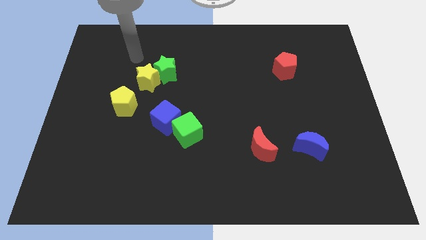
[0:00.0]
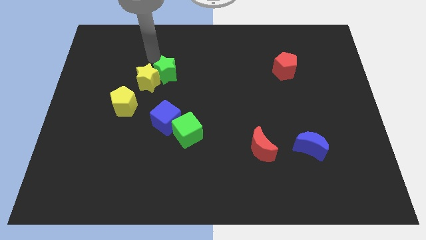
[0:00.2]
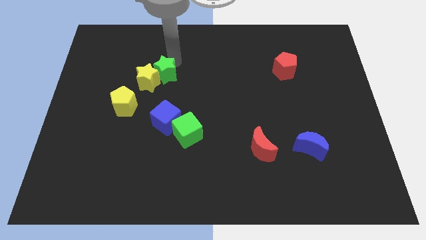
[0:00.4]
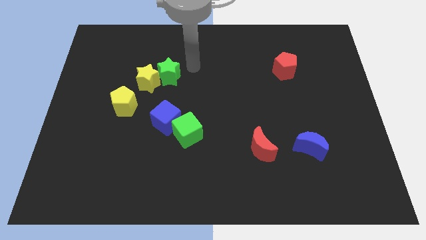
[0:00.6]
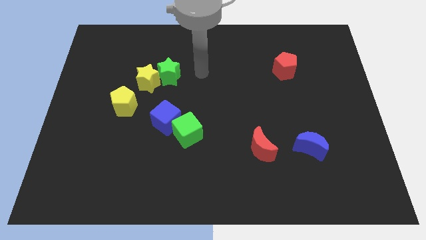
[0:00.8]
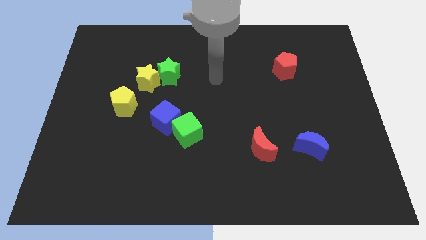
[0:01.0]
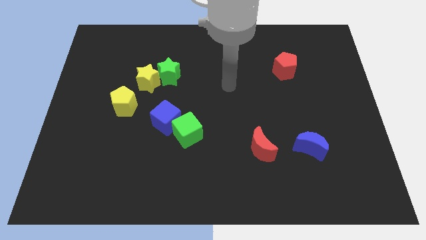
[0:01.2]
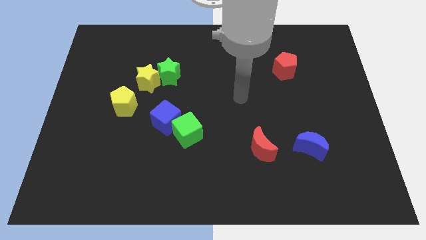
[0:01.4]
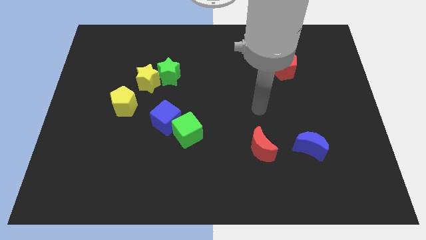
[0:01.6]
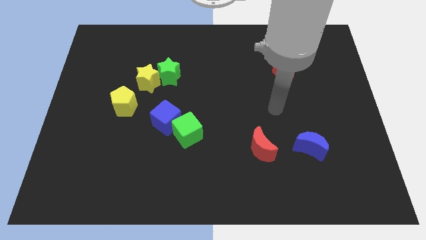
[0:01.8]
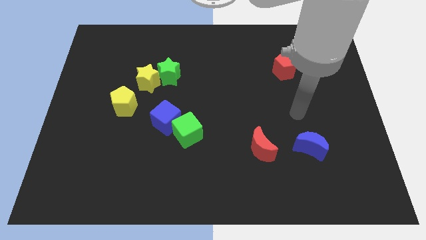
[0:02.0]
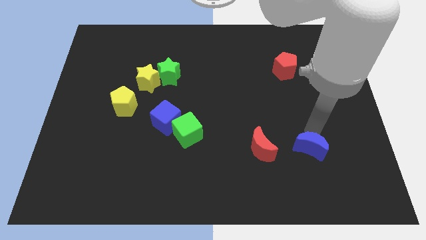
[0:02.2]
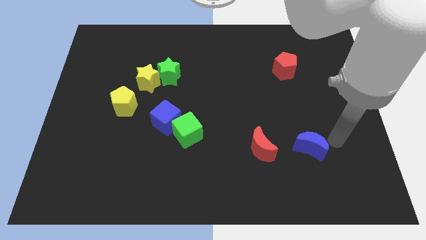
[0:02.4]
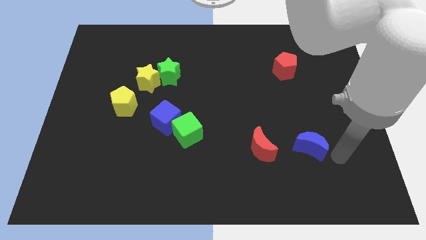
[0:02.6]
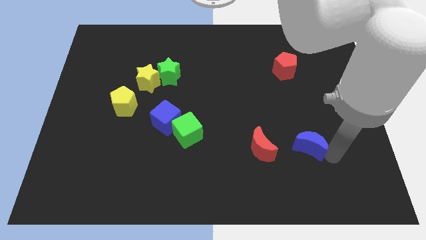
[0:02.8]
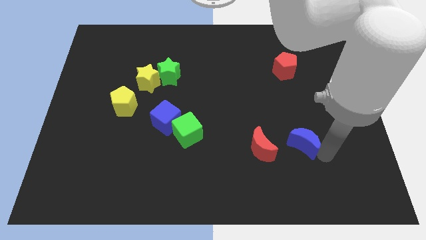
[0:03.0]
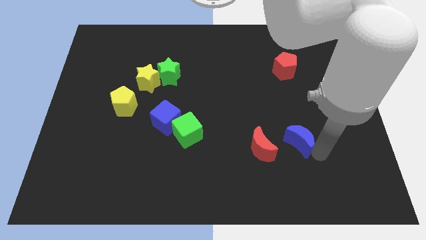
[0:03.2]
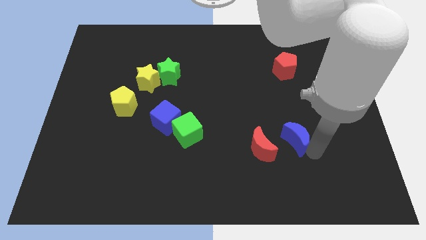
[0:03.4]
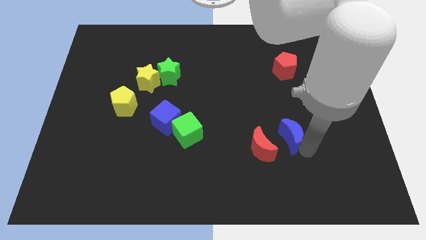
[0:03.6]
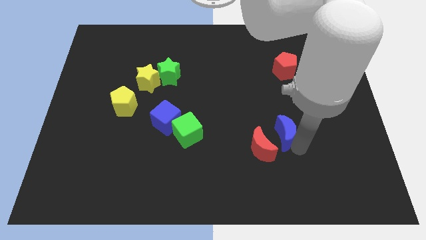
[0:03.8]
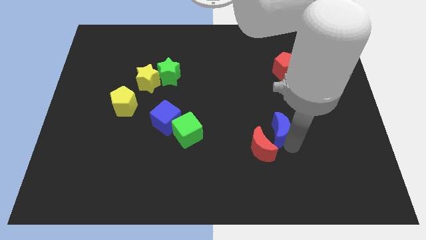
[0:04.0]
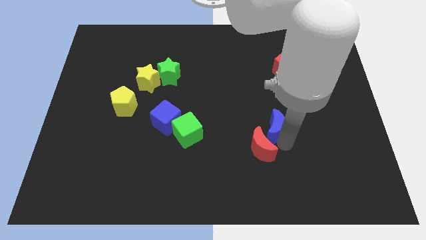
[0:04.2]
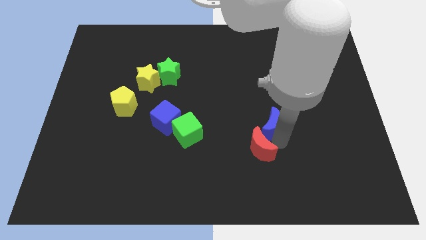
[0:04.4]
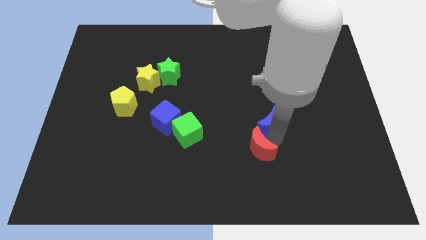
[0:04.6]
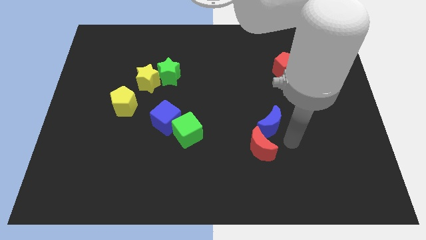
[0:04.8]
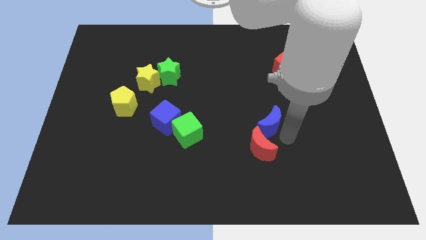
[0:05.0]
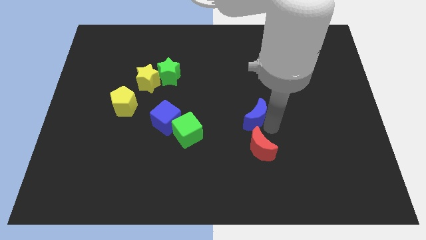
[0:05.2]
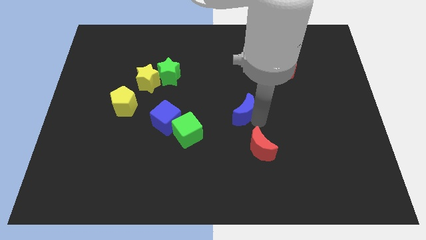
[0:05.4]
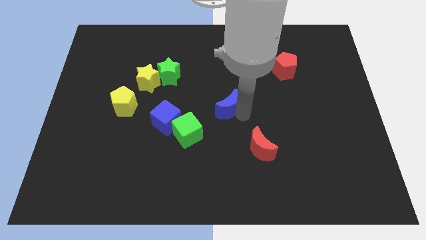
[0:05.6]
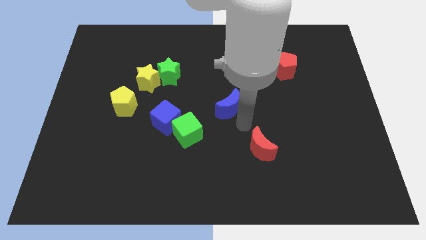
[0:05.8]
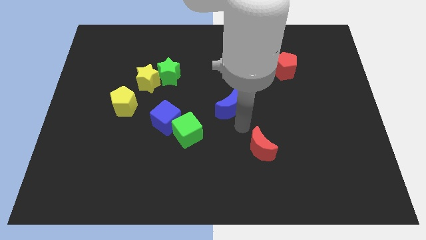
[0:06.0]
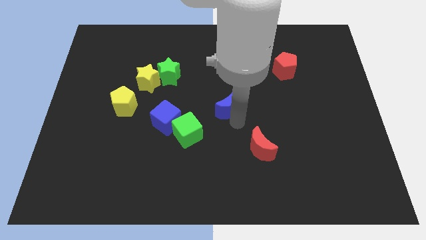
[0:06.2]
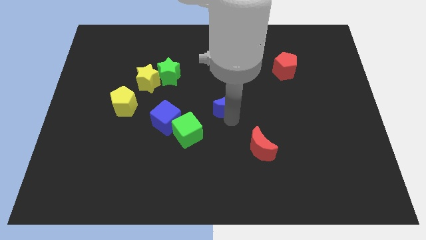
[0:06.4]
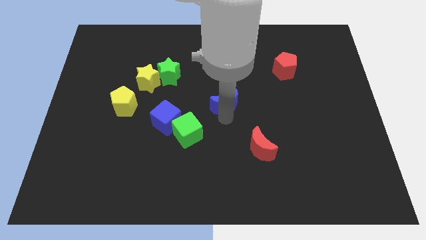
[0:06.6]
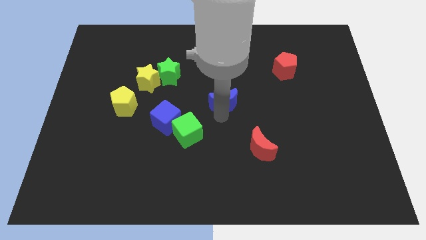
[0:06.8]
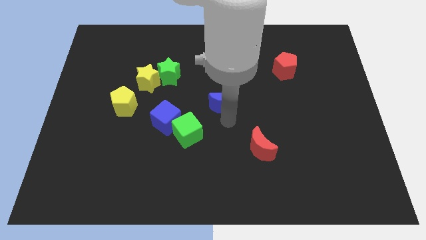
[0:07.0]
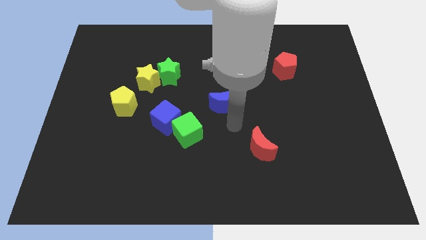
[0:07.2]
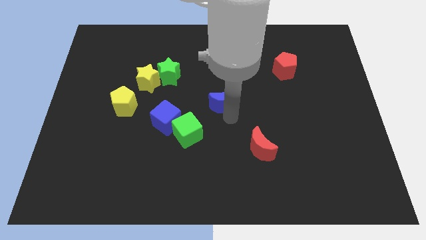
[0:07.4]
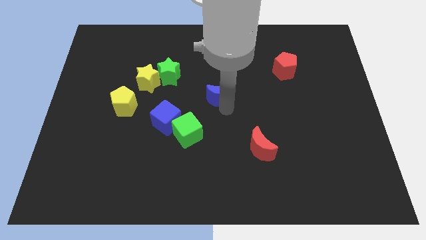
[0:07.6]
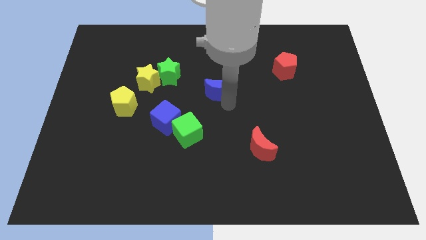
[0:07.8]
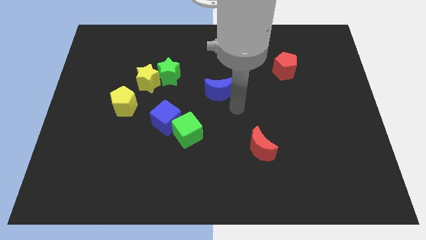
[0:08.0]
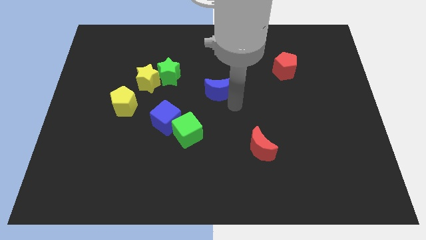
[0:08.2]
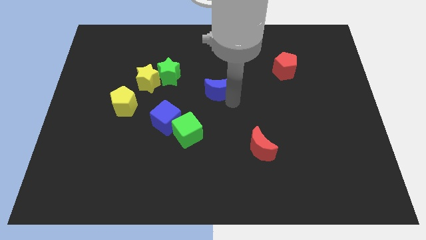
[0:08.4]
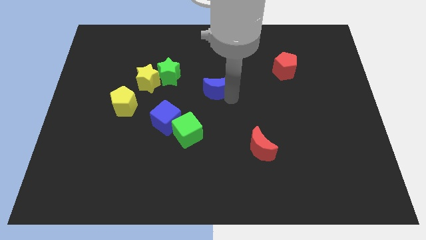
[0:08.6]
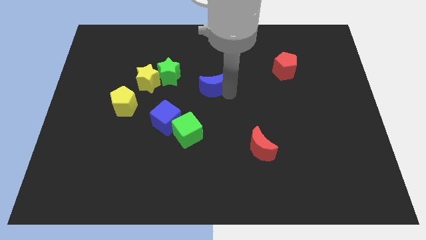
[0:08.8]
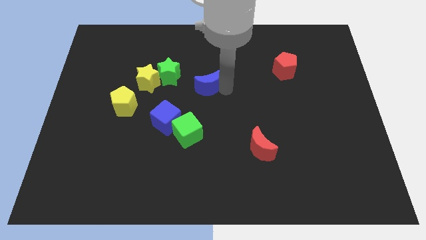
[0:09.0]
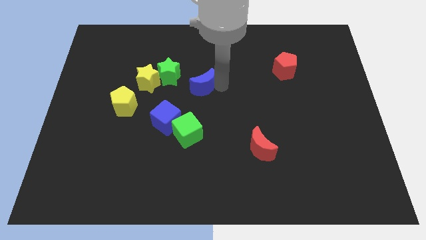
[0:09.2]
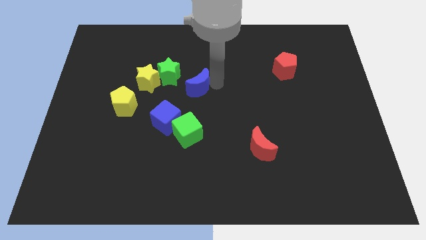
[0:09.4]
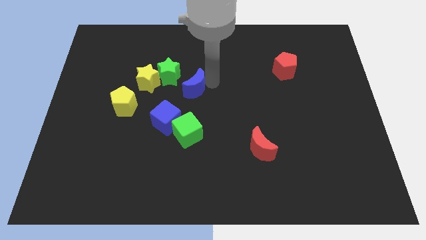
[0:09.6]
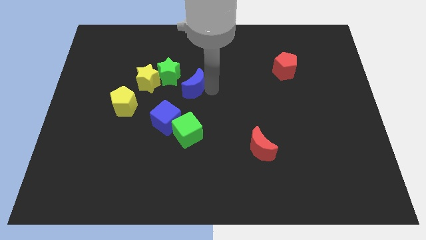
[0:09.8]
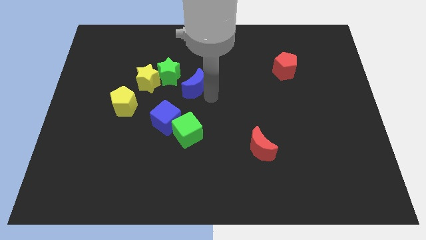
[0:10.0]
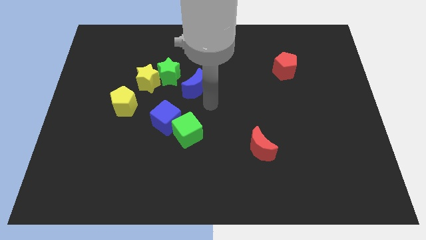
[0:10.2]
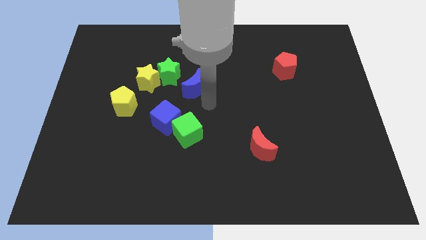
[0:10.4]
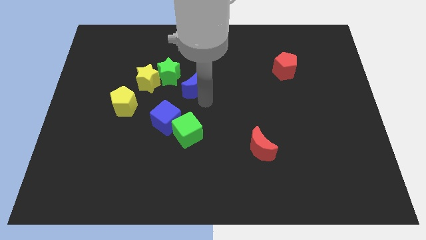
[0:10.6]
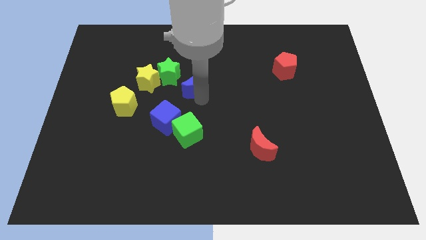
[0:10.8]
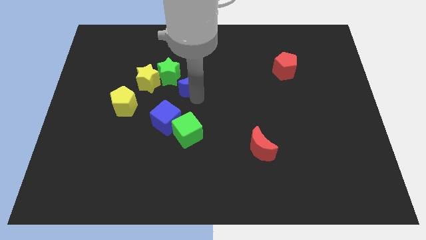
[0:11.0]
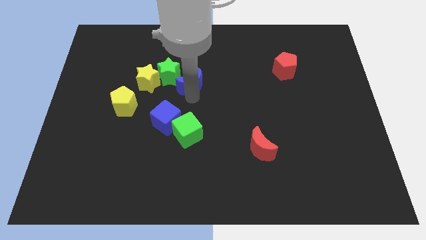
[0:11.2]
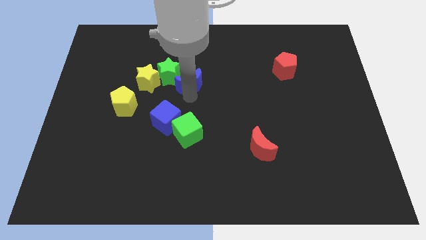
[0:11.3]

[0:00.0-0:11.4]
slide the blue moon close to the green star

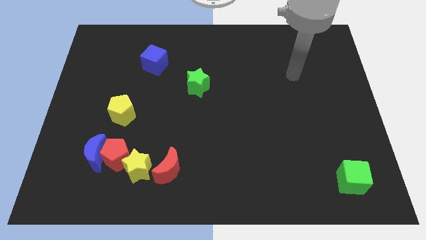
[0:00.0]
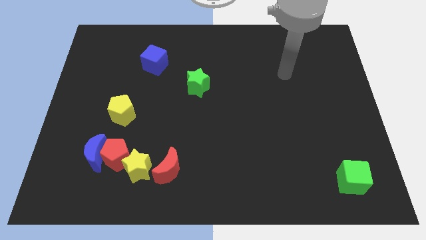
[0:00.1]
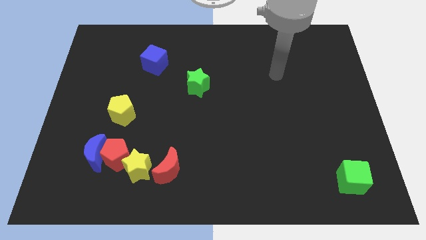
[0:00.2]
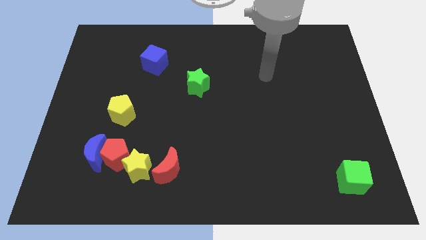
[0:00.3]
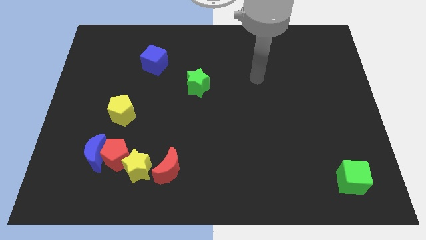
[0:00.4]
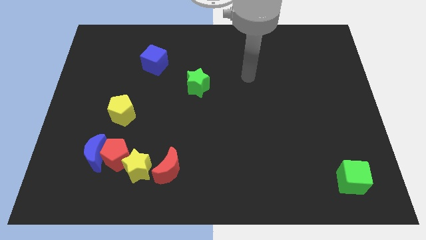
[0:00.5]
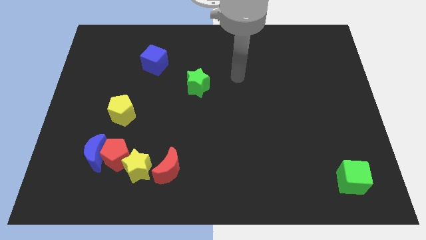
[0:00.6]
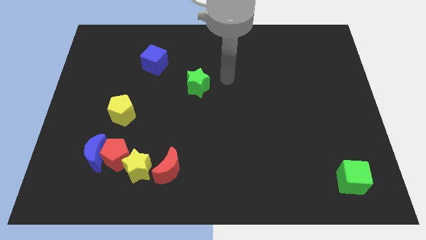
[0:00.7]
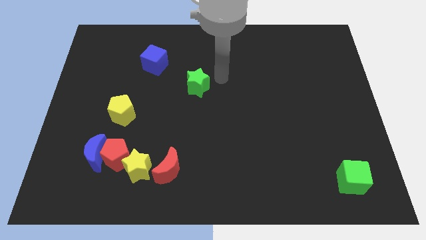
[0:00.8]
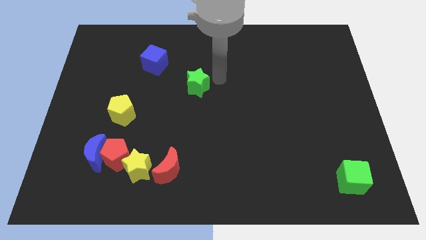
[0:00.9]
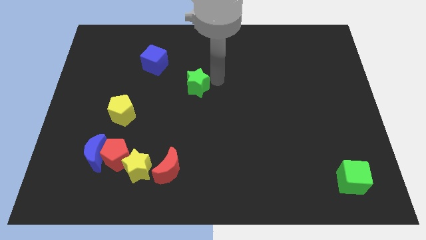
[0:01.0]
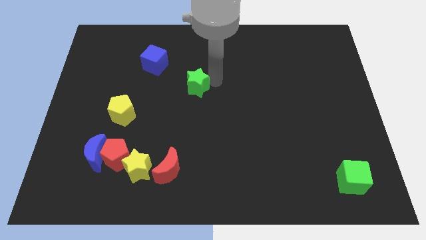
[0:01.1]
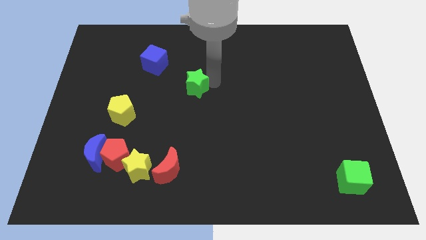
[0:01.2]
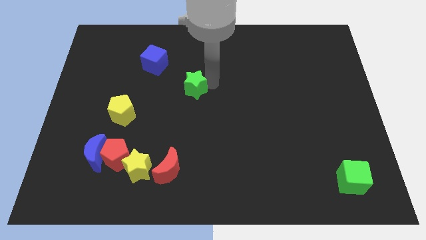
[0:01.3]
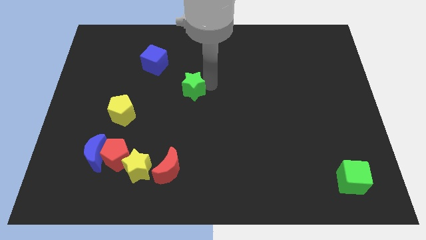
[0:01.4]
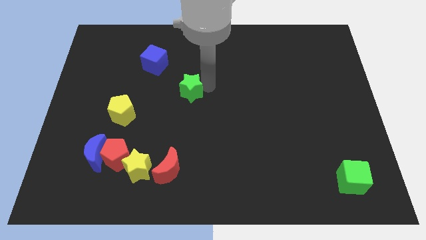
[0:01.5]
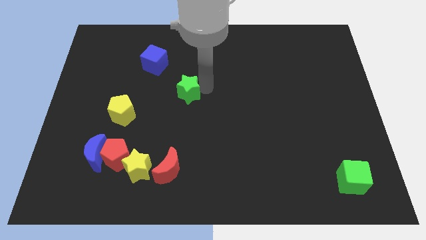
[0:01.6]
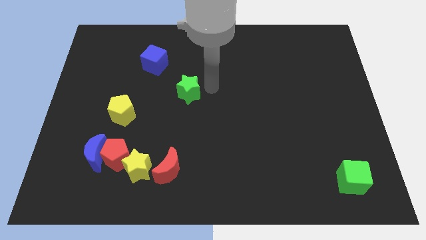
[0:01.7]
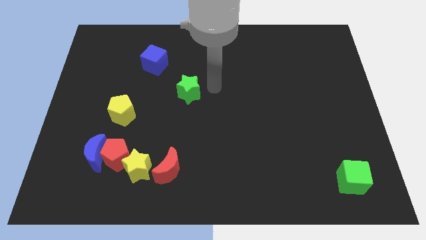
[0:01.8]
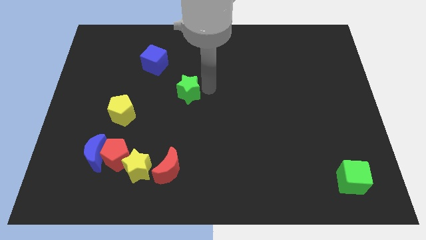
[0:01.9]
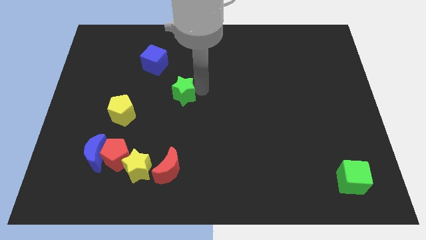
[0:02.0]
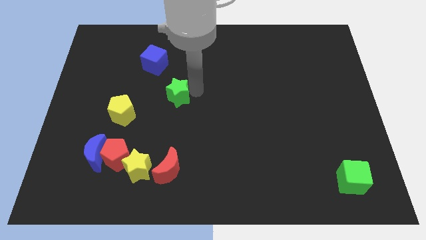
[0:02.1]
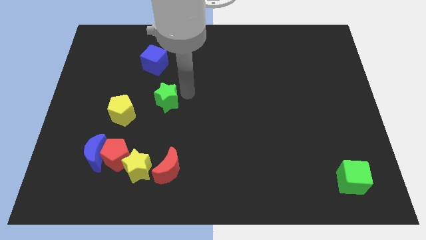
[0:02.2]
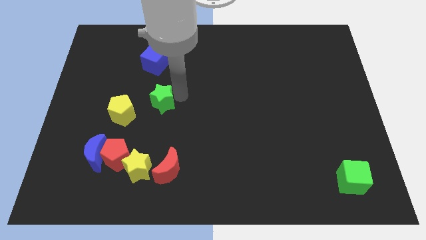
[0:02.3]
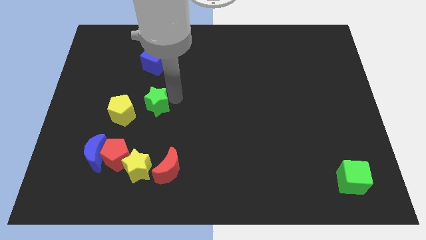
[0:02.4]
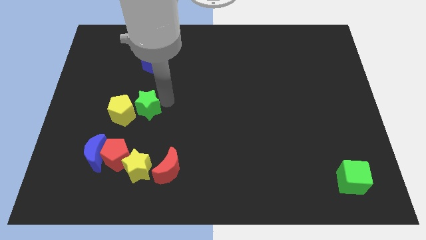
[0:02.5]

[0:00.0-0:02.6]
push the green star to the yellow pentagon
